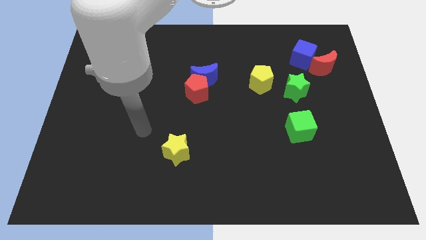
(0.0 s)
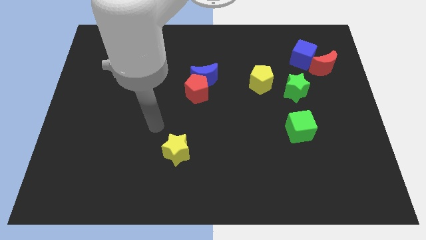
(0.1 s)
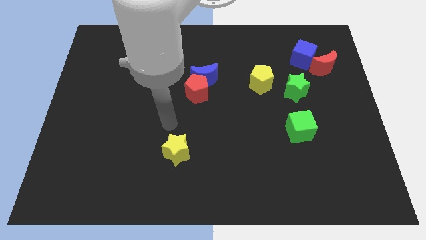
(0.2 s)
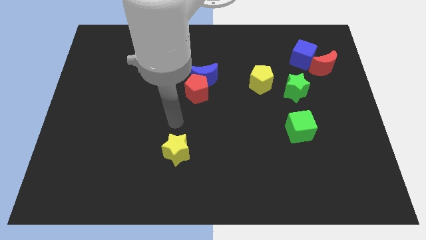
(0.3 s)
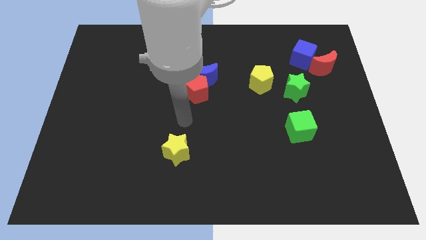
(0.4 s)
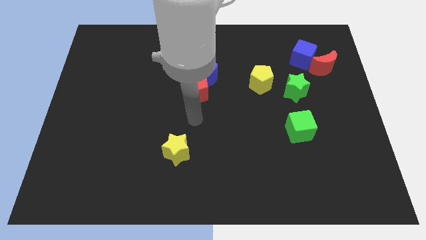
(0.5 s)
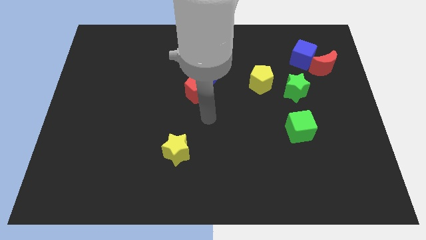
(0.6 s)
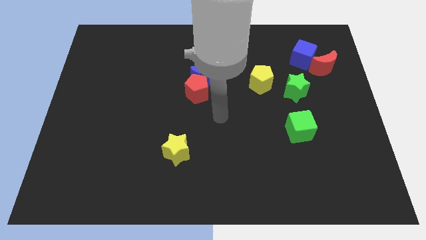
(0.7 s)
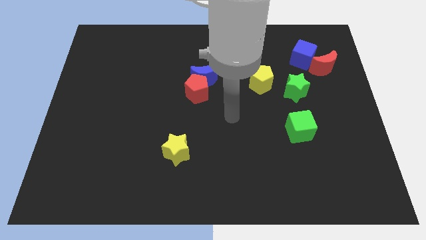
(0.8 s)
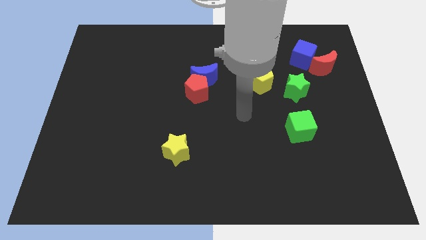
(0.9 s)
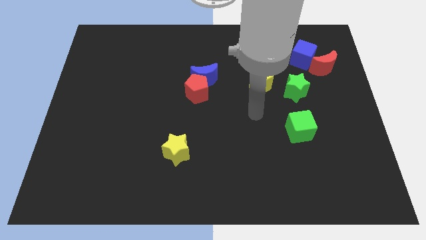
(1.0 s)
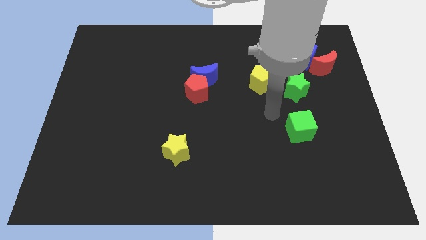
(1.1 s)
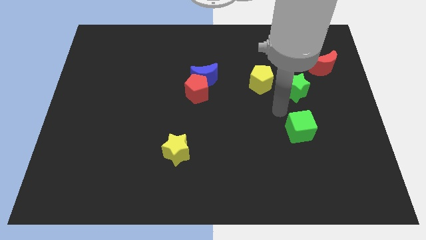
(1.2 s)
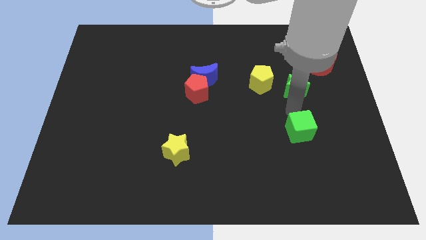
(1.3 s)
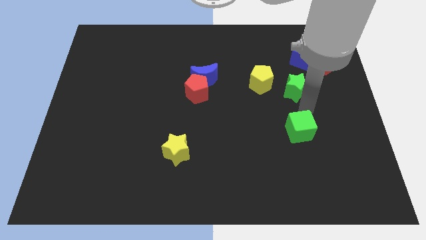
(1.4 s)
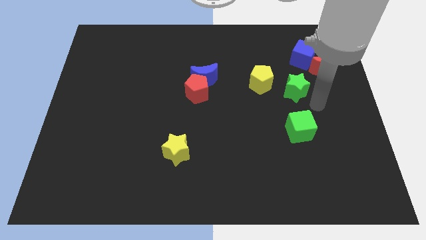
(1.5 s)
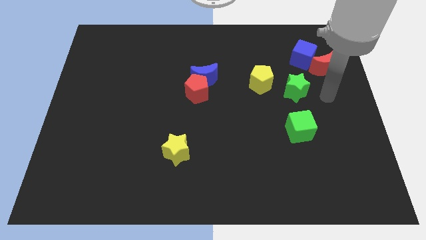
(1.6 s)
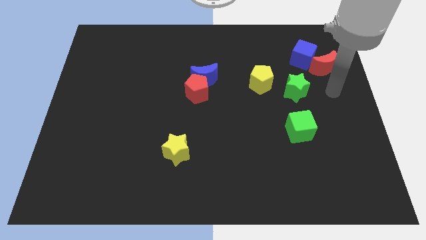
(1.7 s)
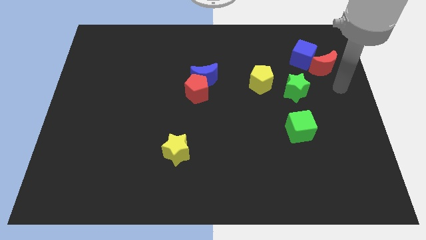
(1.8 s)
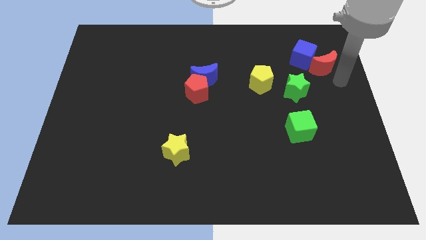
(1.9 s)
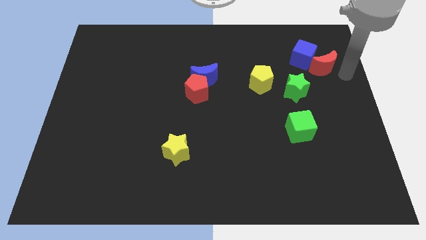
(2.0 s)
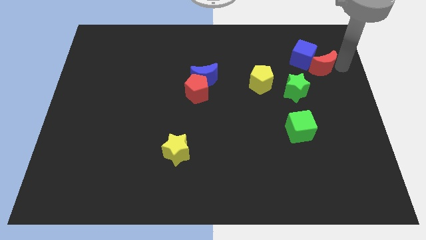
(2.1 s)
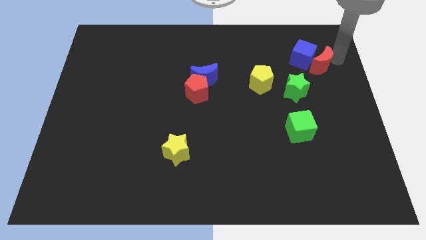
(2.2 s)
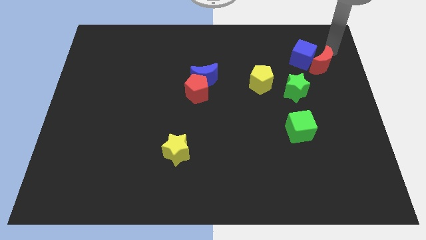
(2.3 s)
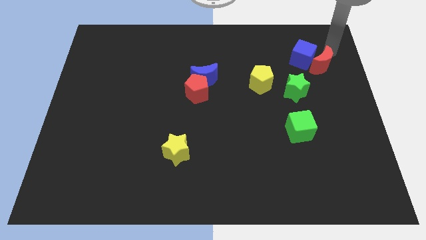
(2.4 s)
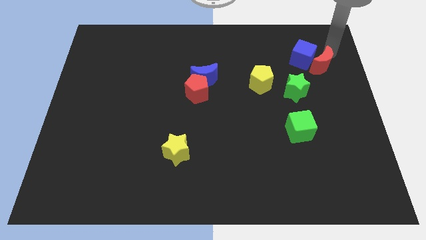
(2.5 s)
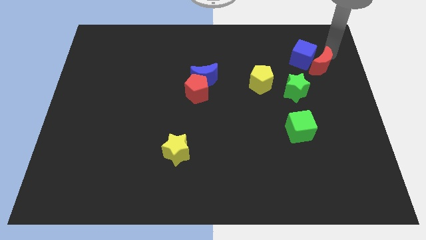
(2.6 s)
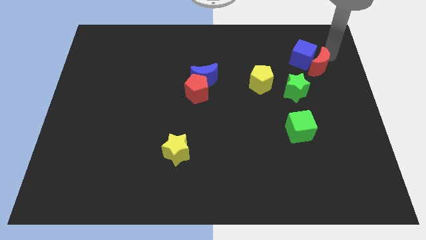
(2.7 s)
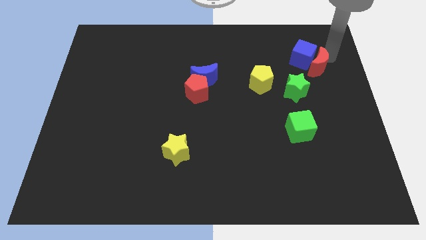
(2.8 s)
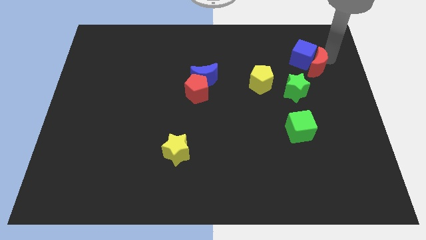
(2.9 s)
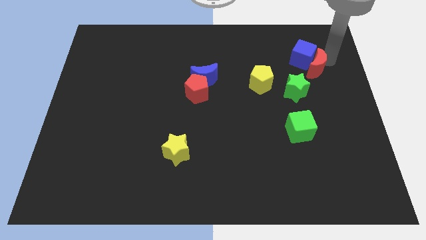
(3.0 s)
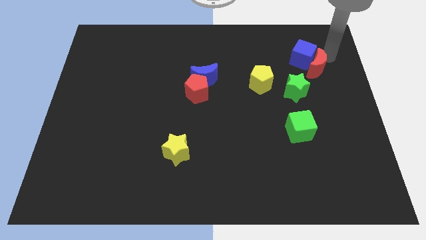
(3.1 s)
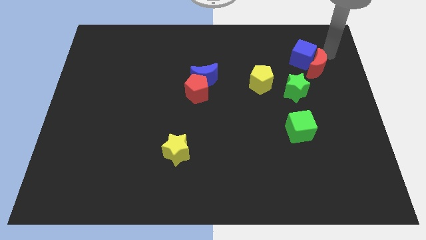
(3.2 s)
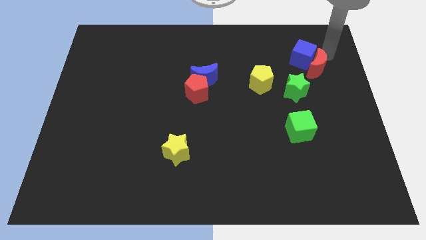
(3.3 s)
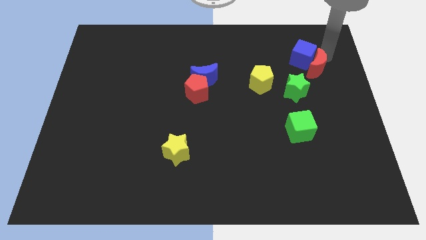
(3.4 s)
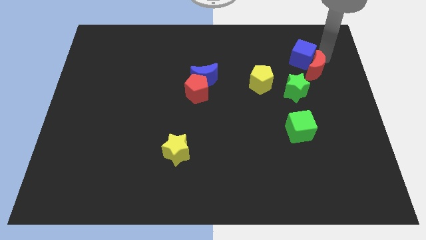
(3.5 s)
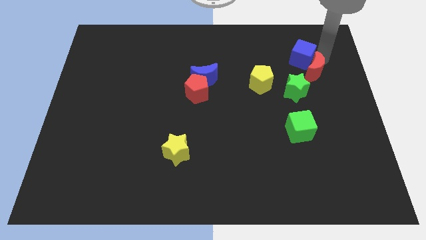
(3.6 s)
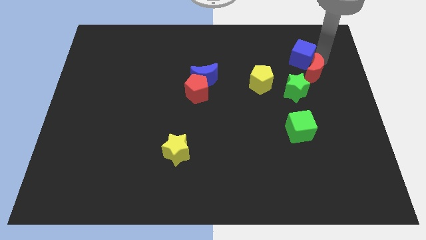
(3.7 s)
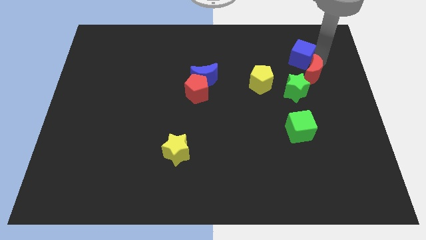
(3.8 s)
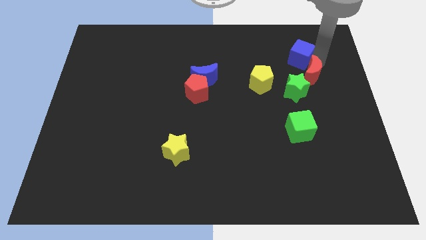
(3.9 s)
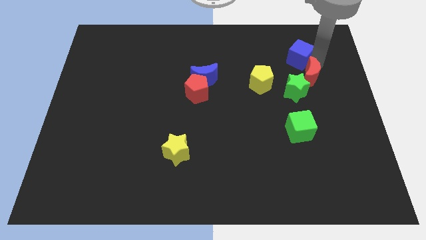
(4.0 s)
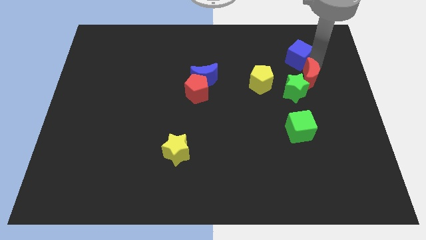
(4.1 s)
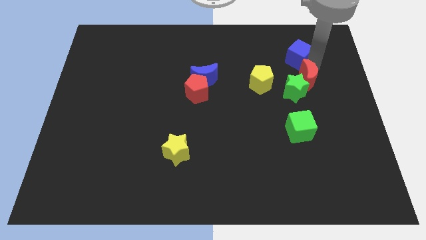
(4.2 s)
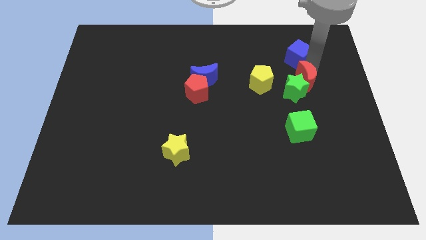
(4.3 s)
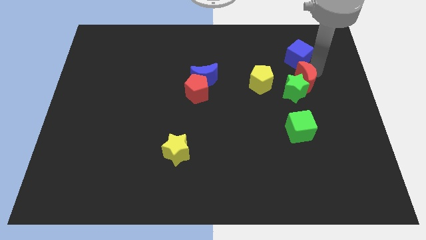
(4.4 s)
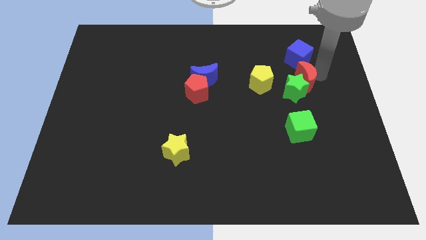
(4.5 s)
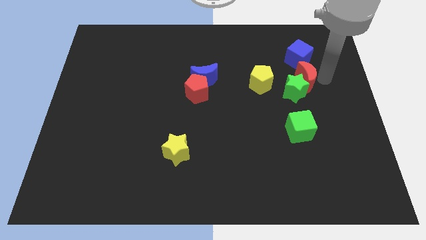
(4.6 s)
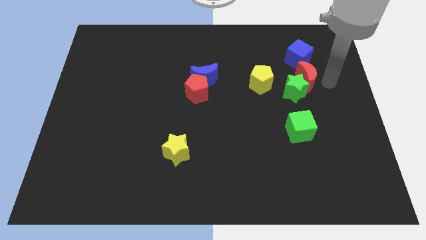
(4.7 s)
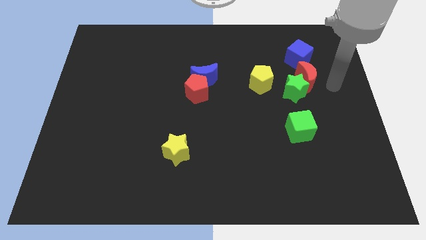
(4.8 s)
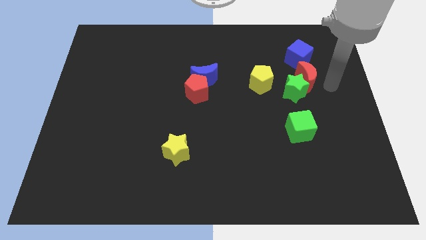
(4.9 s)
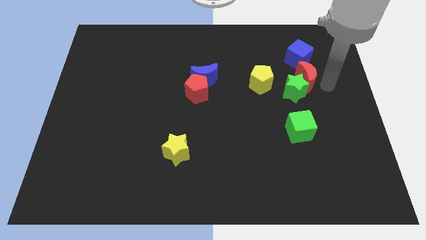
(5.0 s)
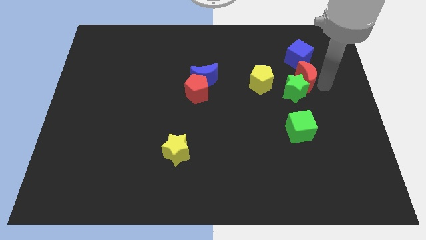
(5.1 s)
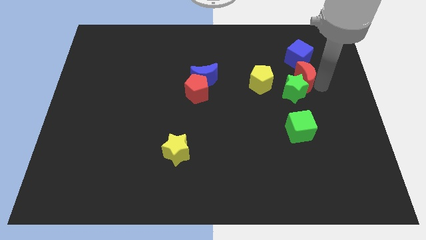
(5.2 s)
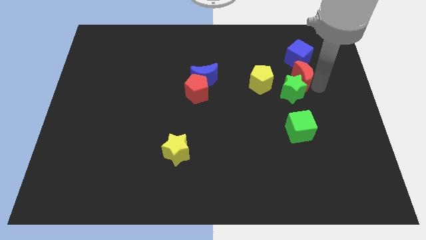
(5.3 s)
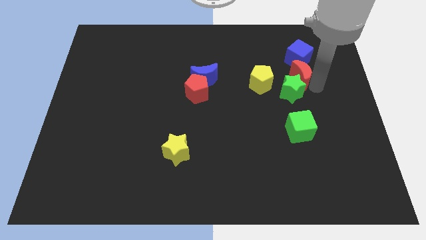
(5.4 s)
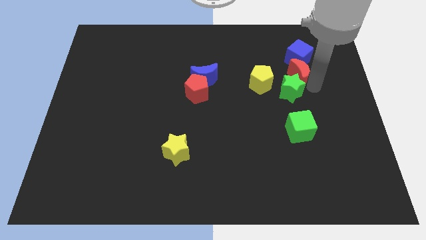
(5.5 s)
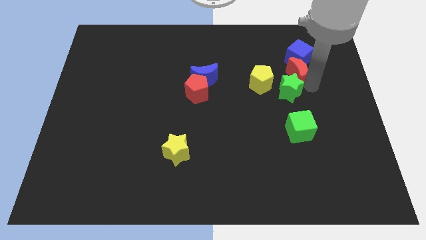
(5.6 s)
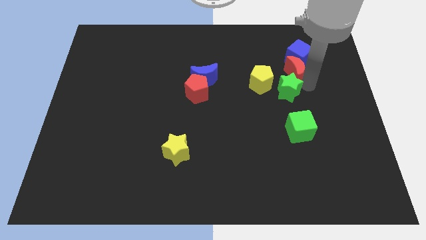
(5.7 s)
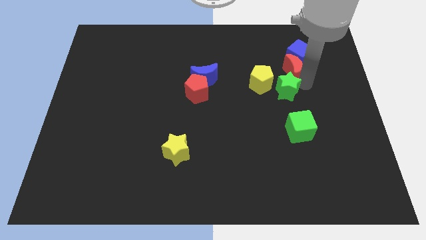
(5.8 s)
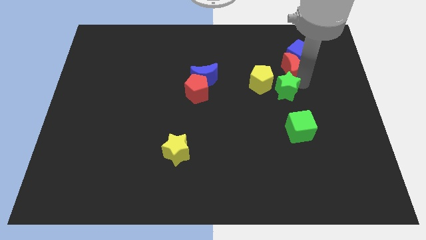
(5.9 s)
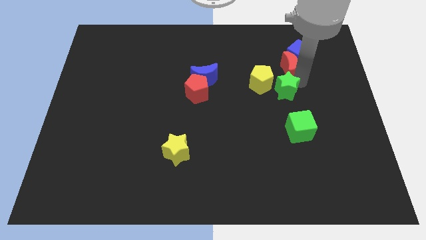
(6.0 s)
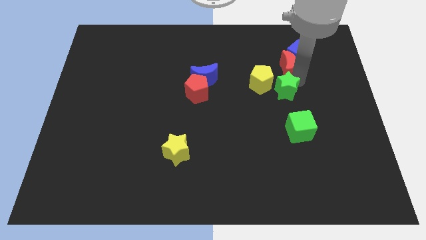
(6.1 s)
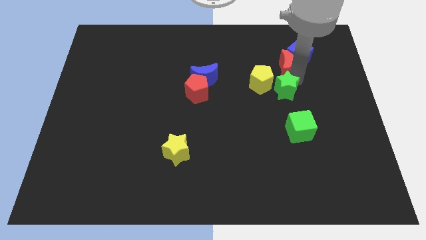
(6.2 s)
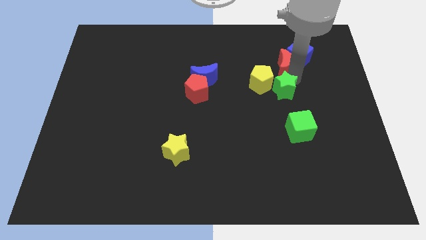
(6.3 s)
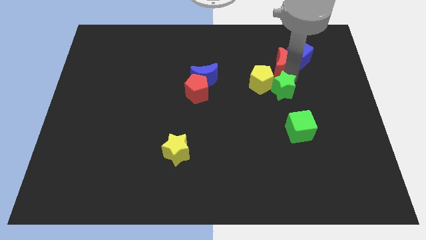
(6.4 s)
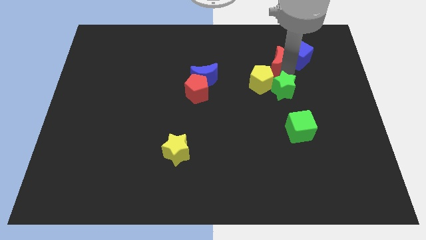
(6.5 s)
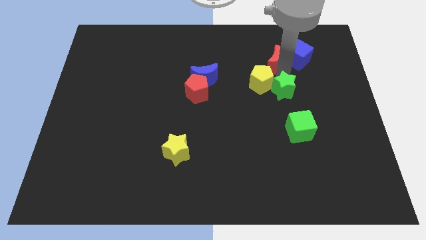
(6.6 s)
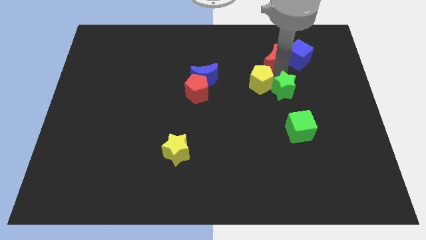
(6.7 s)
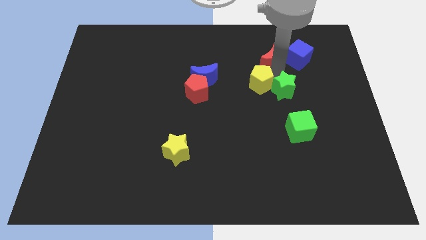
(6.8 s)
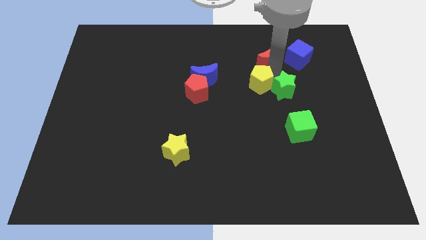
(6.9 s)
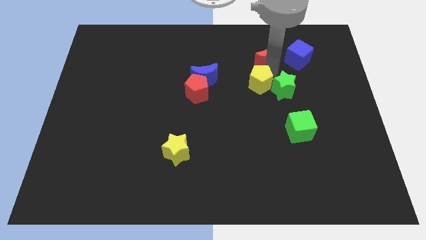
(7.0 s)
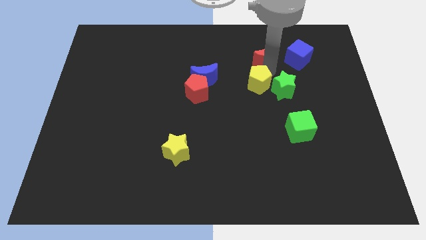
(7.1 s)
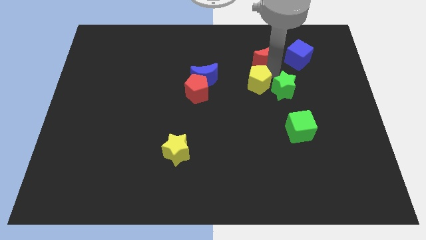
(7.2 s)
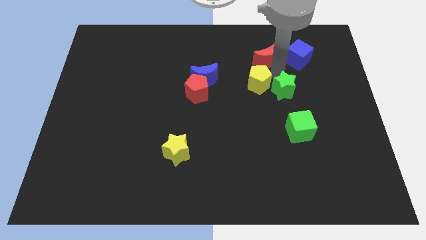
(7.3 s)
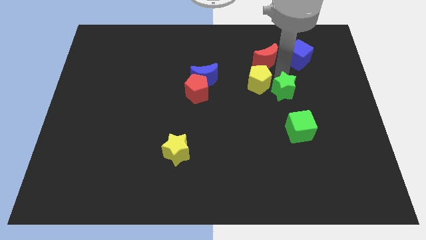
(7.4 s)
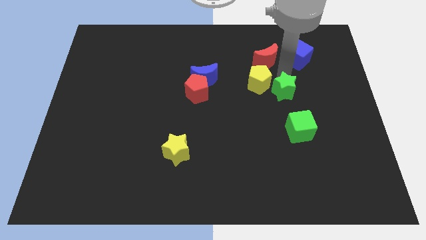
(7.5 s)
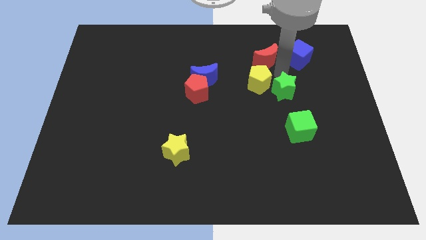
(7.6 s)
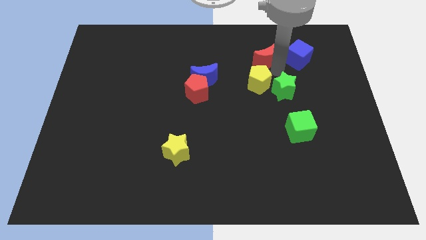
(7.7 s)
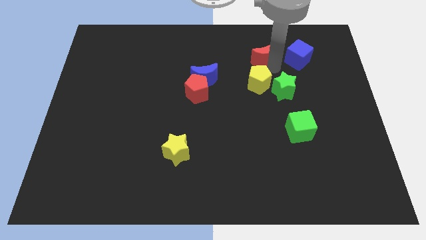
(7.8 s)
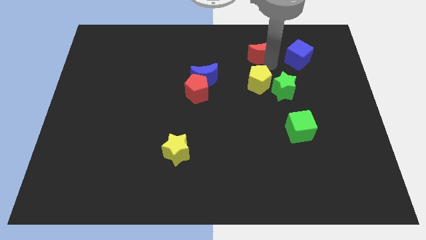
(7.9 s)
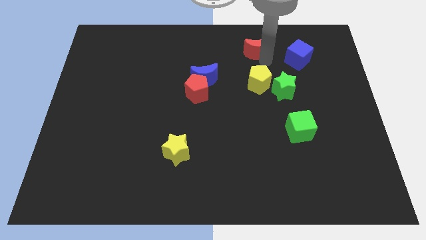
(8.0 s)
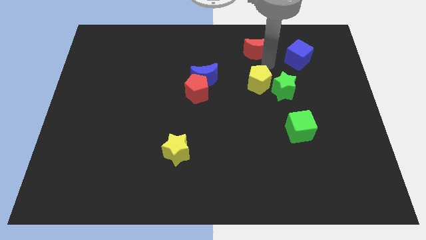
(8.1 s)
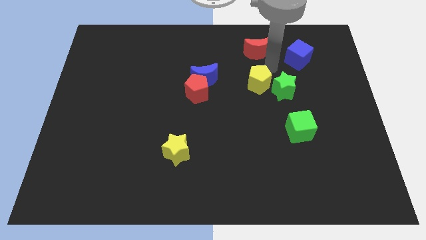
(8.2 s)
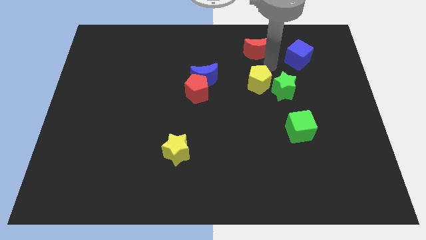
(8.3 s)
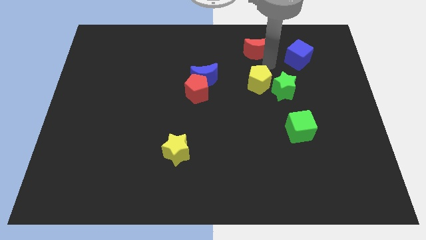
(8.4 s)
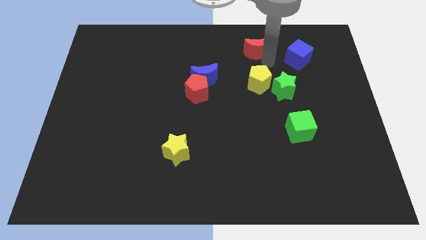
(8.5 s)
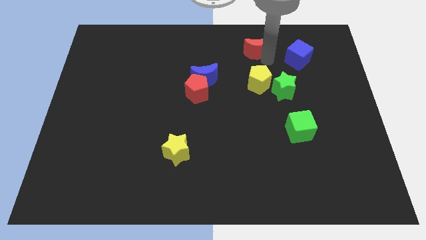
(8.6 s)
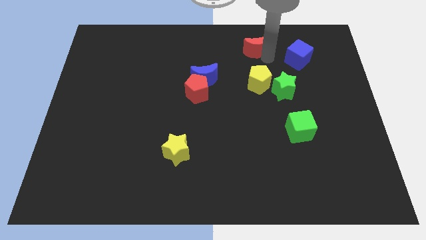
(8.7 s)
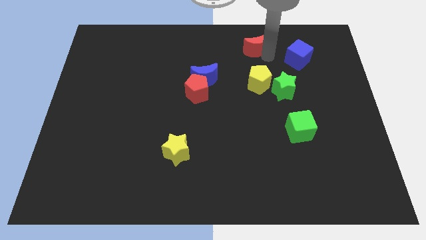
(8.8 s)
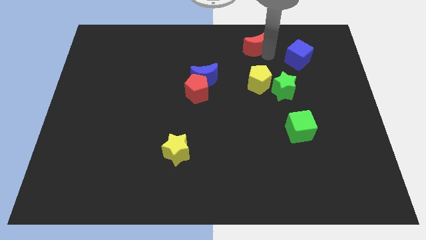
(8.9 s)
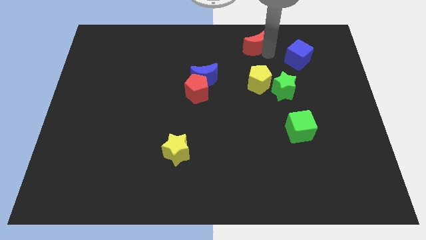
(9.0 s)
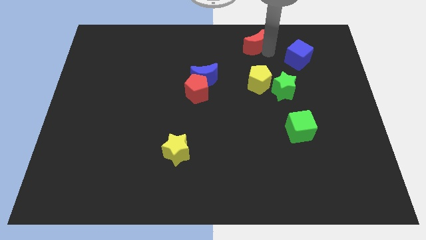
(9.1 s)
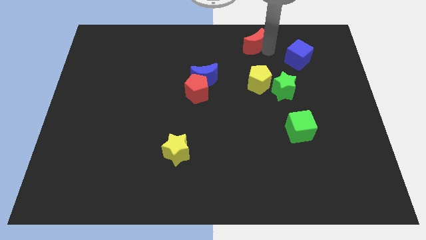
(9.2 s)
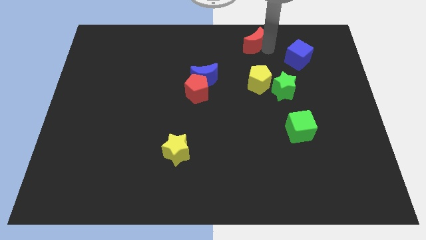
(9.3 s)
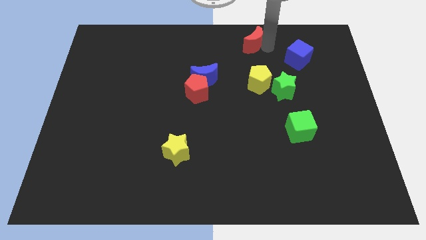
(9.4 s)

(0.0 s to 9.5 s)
put the red moon to the top side
